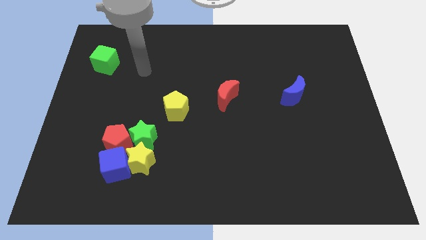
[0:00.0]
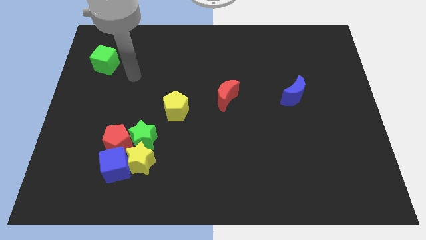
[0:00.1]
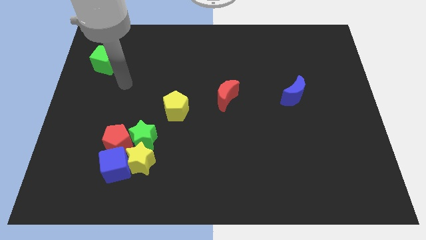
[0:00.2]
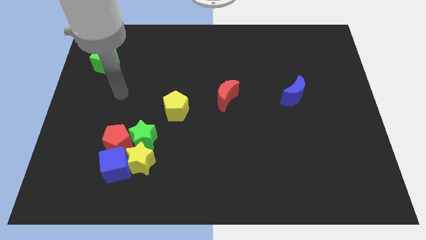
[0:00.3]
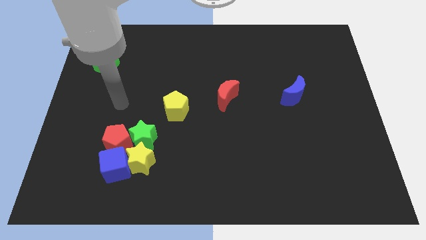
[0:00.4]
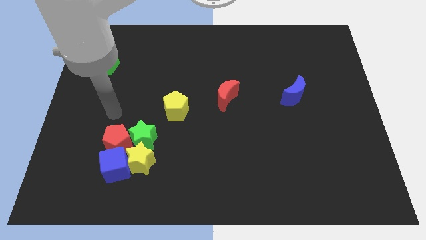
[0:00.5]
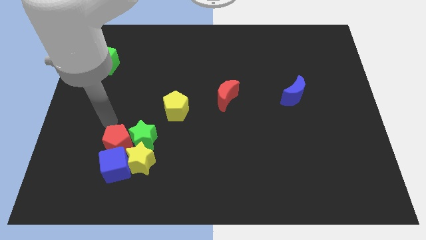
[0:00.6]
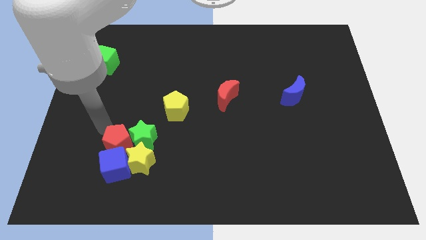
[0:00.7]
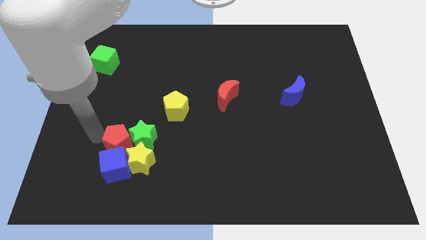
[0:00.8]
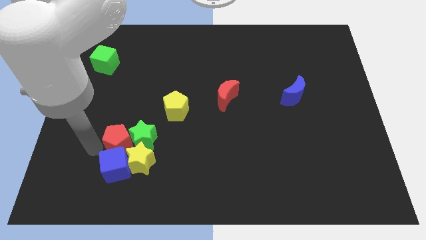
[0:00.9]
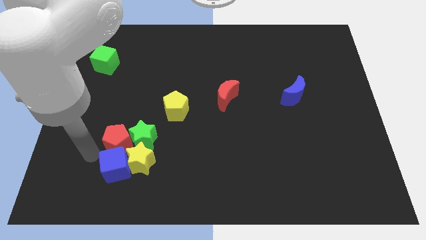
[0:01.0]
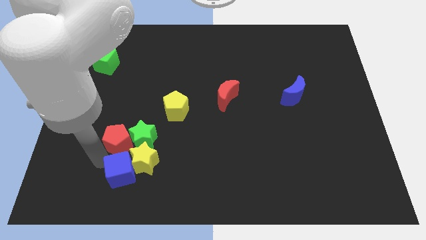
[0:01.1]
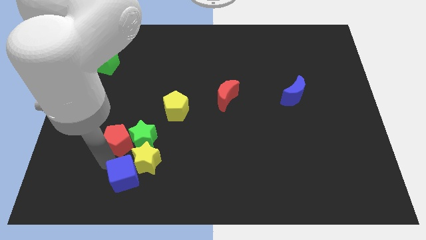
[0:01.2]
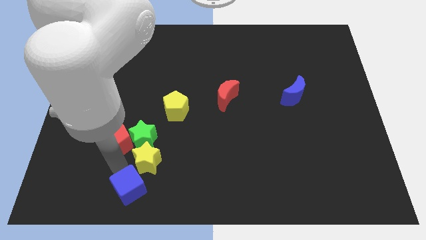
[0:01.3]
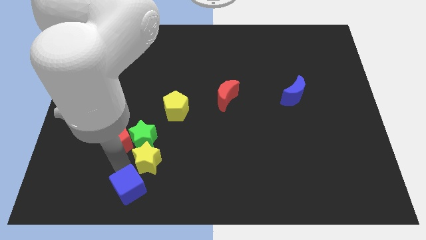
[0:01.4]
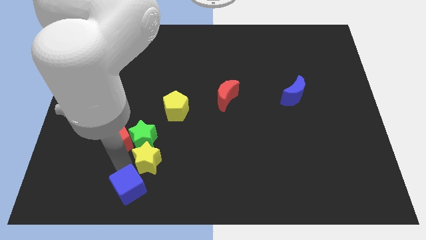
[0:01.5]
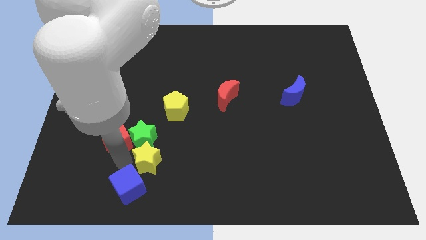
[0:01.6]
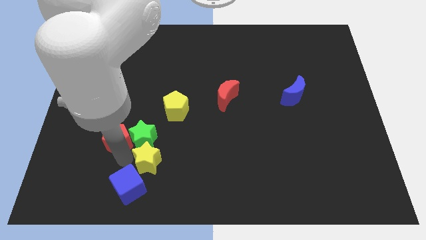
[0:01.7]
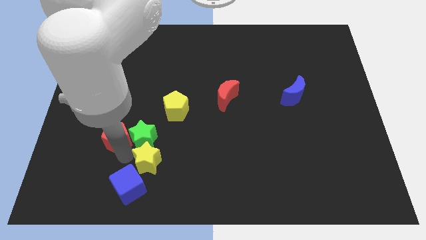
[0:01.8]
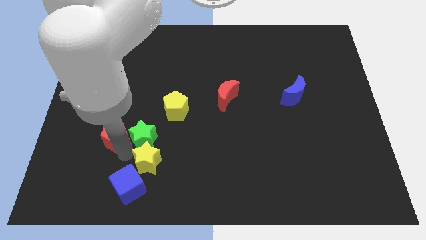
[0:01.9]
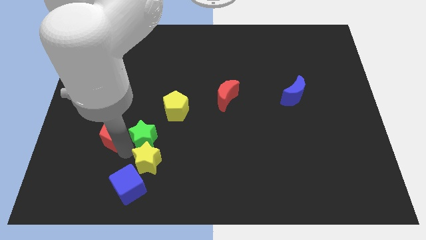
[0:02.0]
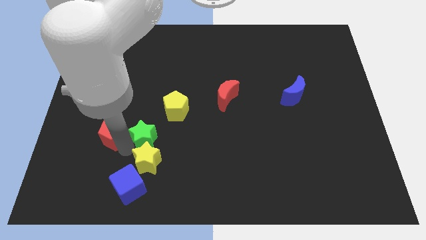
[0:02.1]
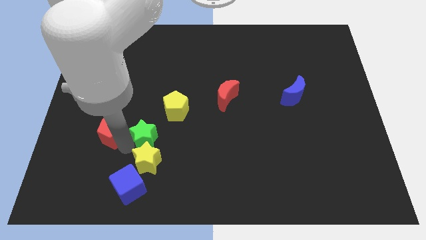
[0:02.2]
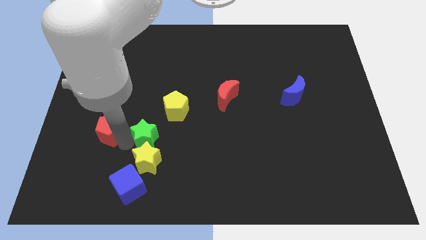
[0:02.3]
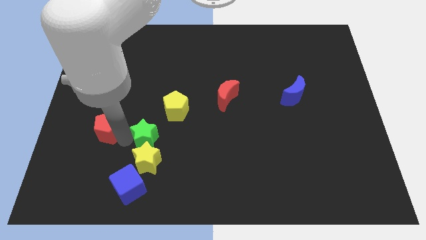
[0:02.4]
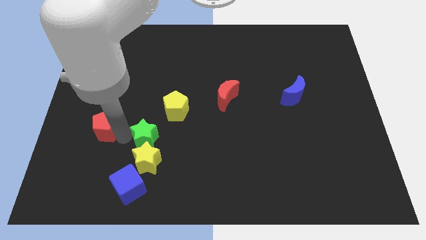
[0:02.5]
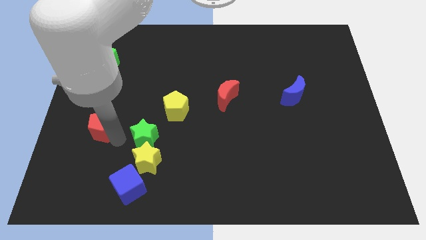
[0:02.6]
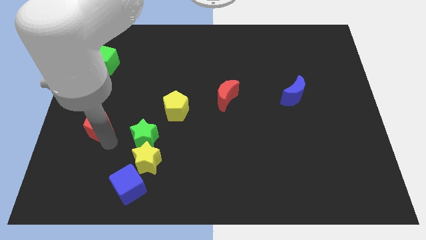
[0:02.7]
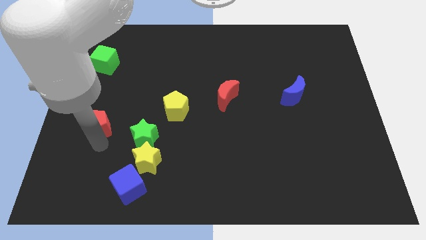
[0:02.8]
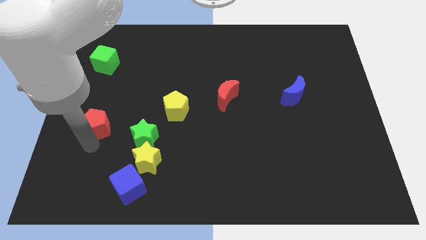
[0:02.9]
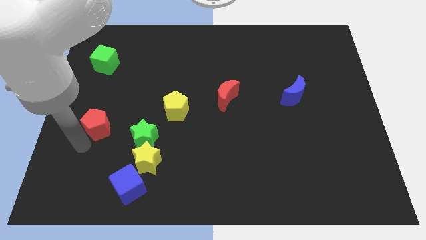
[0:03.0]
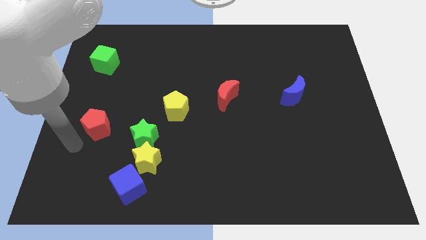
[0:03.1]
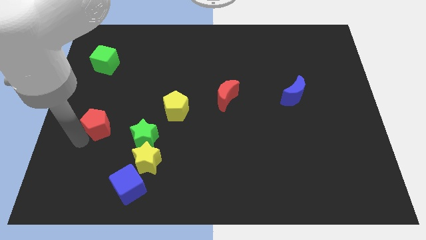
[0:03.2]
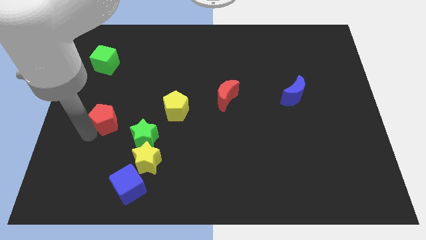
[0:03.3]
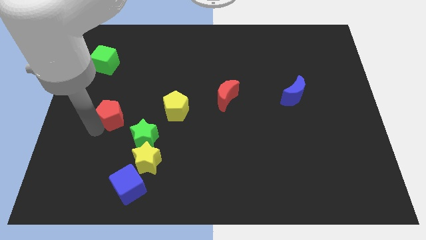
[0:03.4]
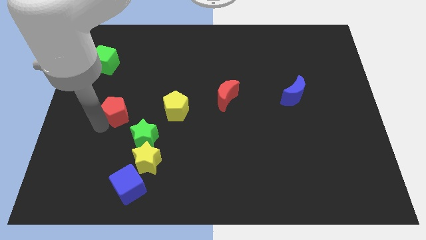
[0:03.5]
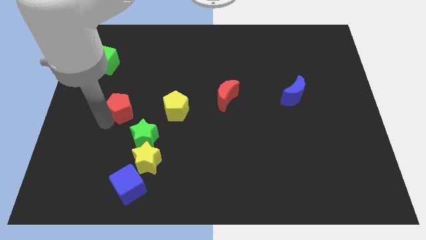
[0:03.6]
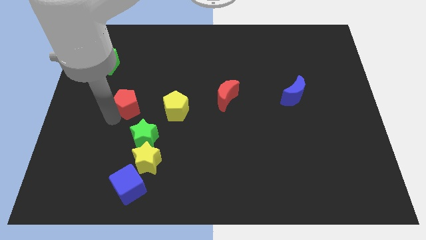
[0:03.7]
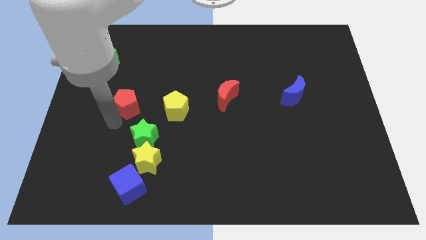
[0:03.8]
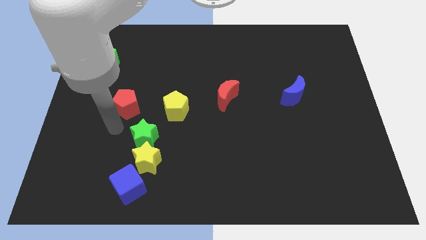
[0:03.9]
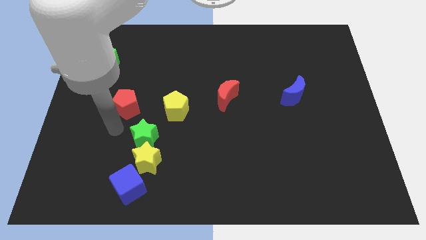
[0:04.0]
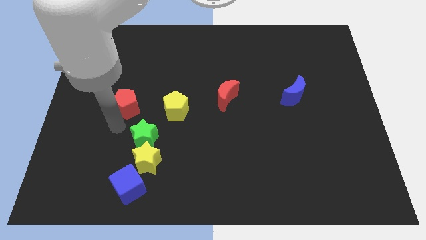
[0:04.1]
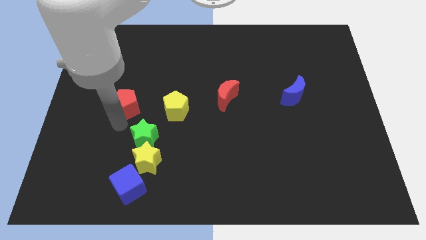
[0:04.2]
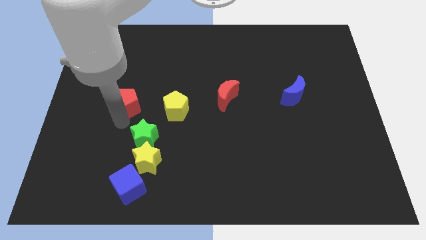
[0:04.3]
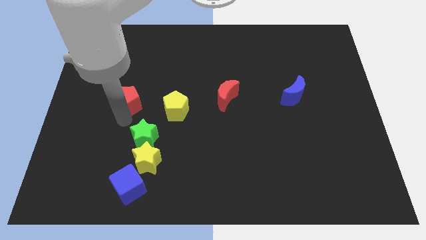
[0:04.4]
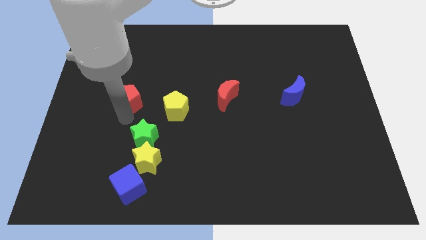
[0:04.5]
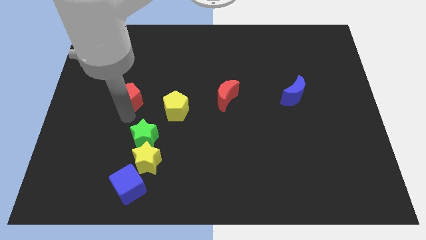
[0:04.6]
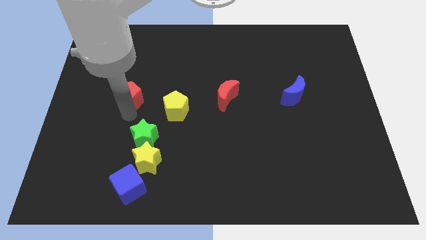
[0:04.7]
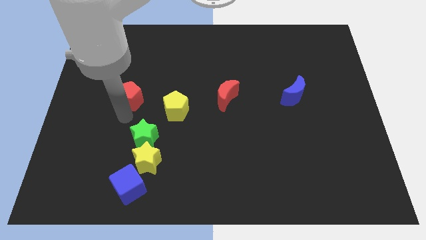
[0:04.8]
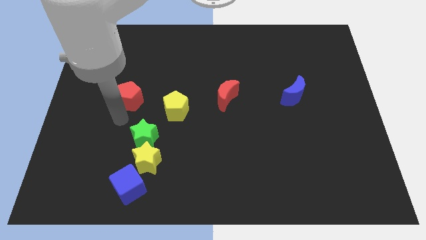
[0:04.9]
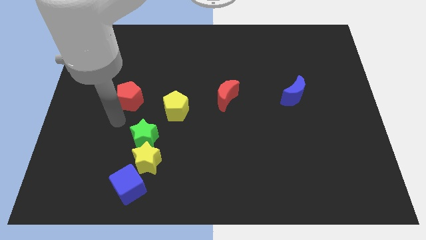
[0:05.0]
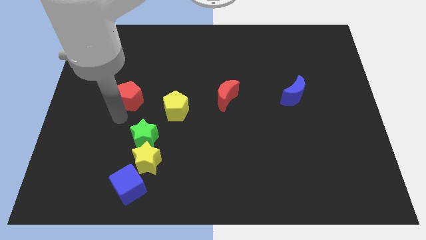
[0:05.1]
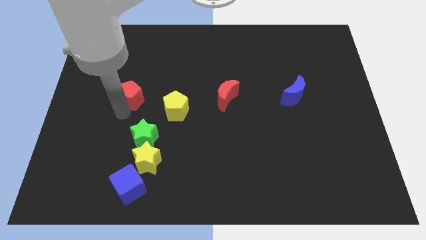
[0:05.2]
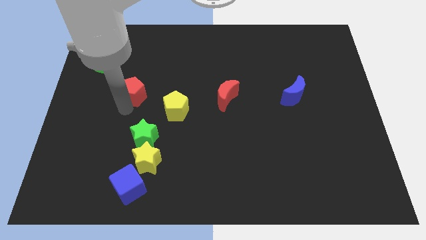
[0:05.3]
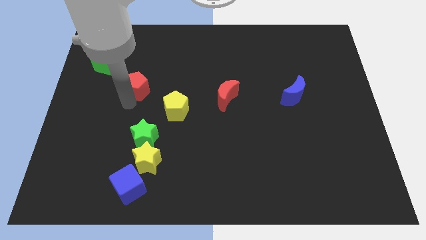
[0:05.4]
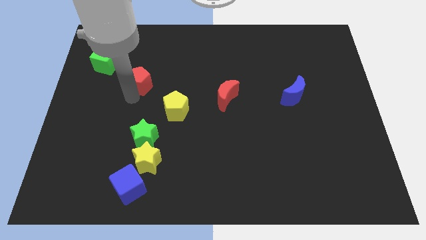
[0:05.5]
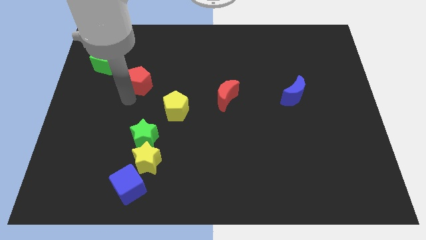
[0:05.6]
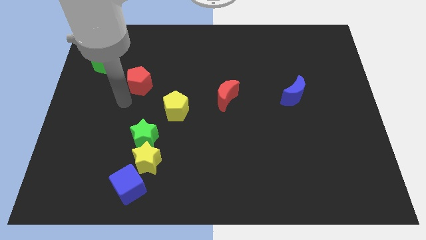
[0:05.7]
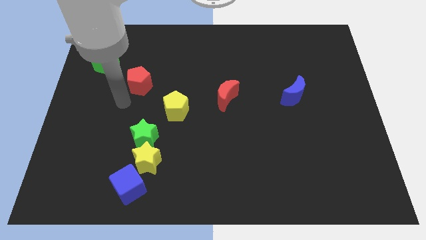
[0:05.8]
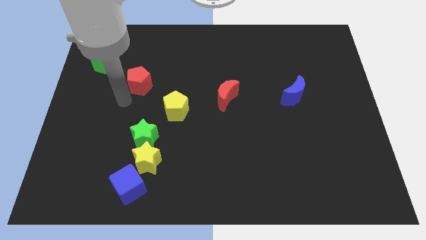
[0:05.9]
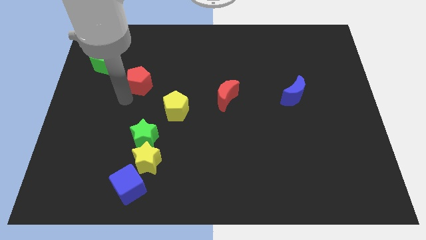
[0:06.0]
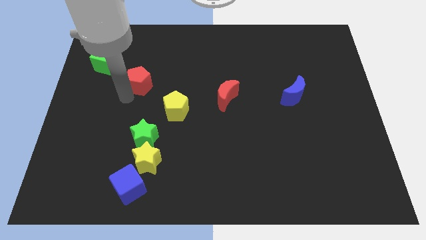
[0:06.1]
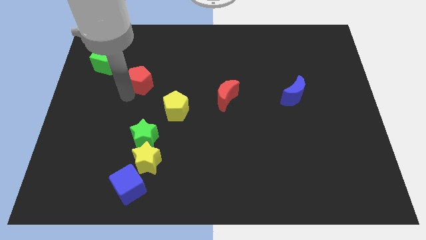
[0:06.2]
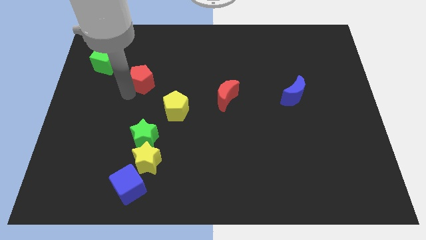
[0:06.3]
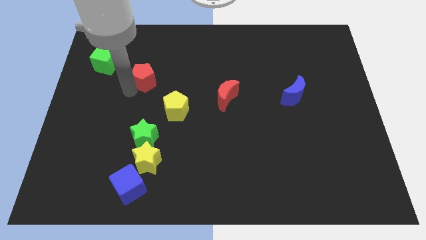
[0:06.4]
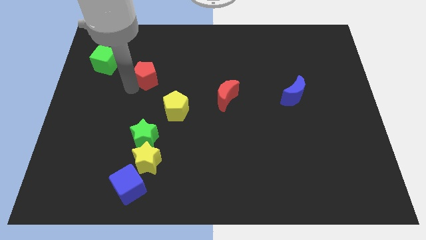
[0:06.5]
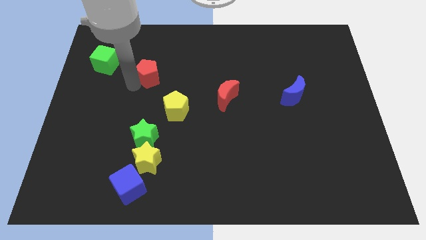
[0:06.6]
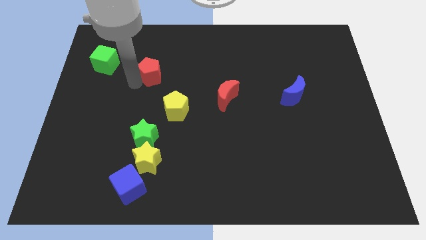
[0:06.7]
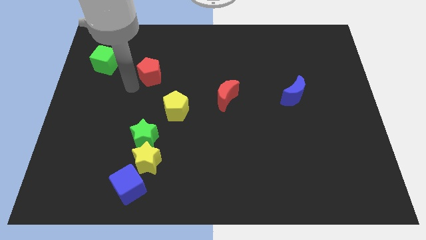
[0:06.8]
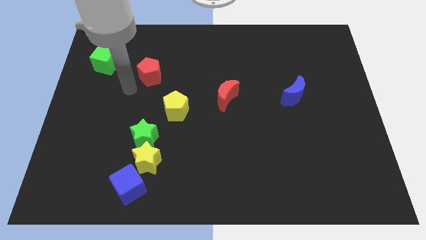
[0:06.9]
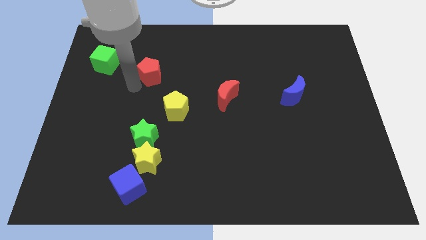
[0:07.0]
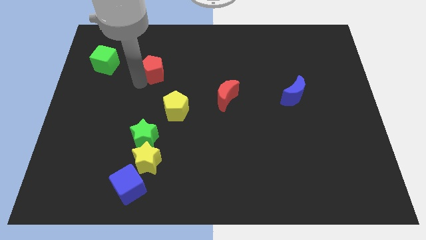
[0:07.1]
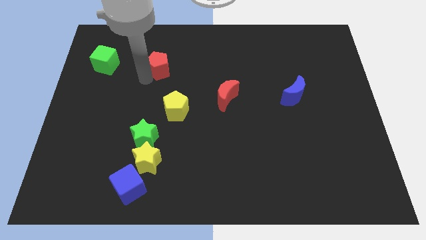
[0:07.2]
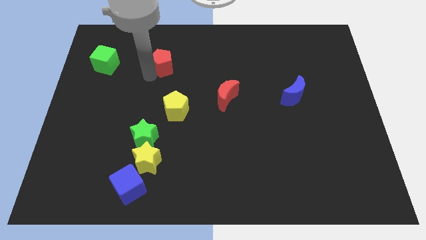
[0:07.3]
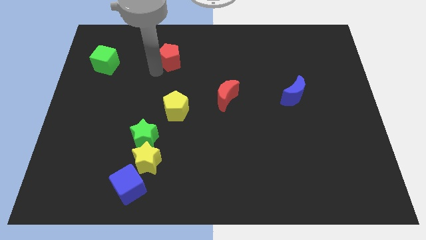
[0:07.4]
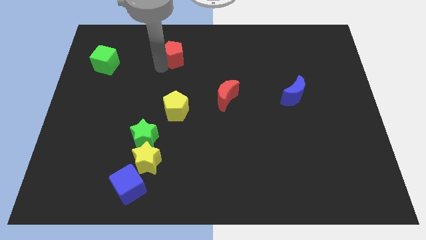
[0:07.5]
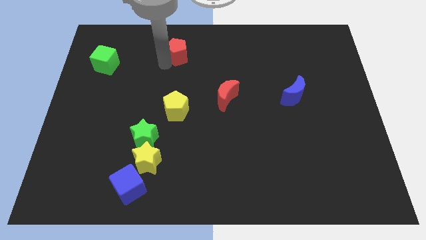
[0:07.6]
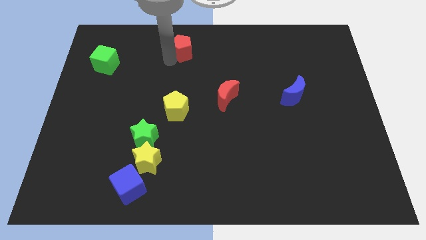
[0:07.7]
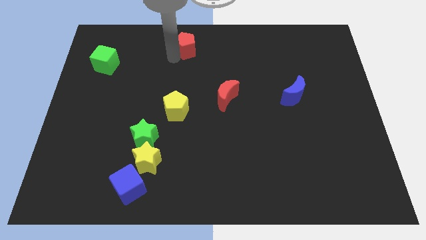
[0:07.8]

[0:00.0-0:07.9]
slide the red pentagon to the top side
